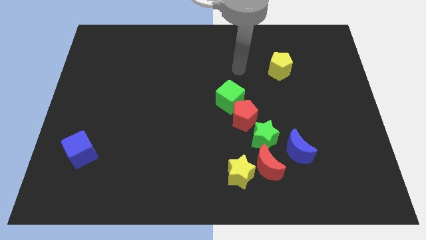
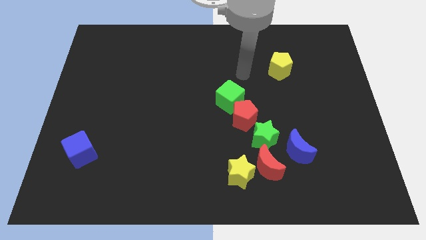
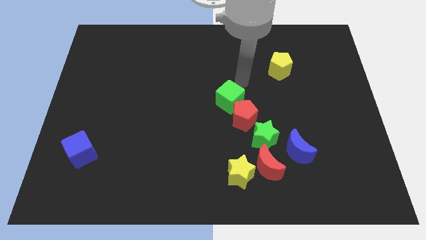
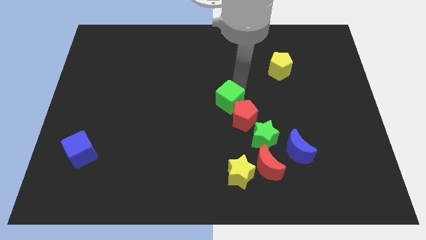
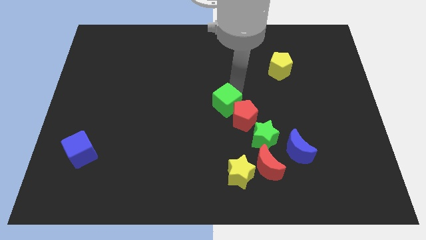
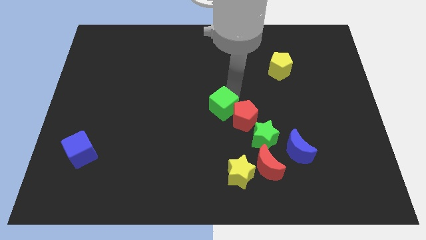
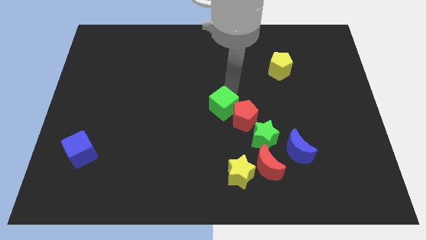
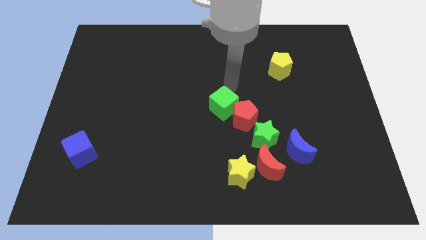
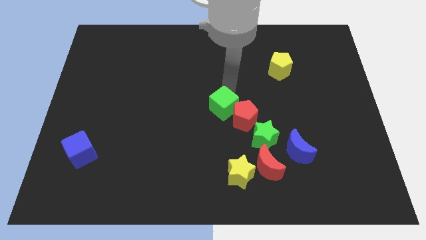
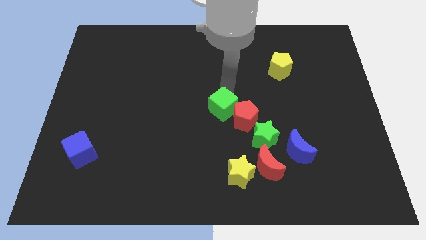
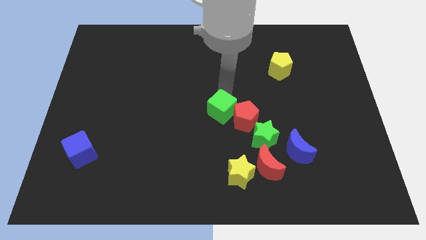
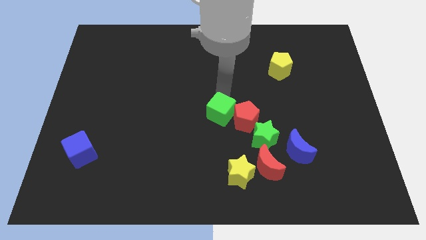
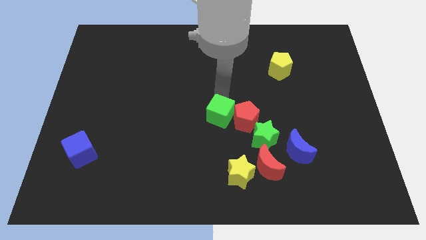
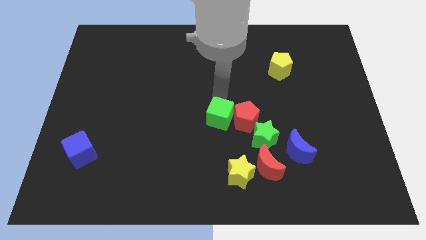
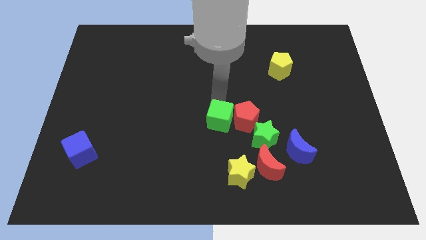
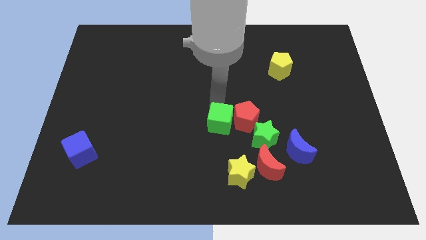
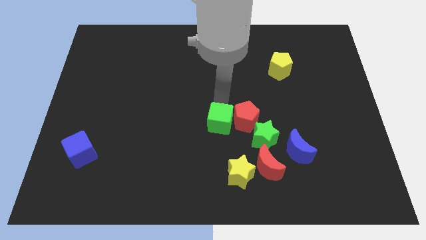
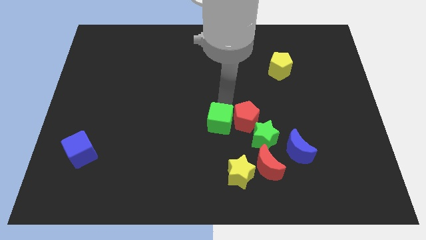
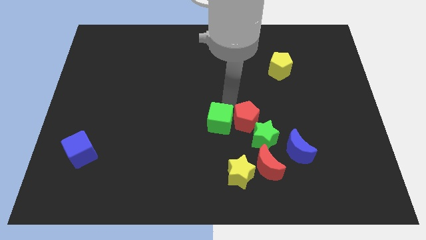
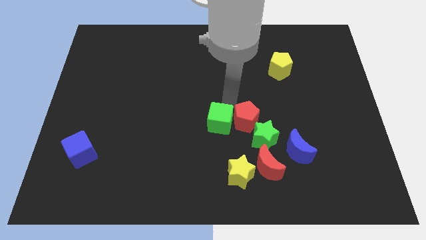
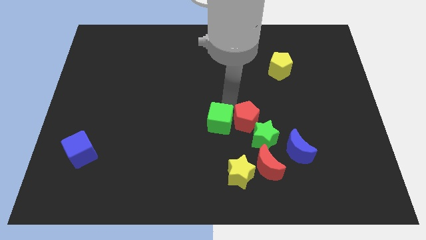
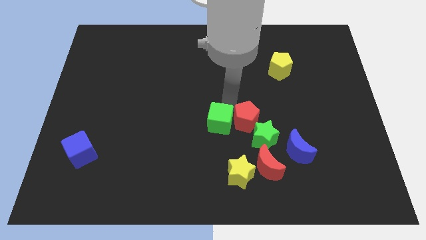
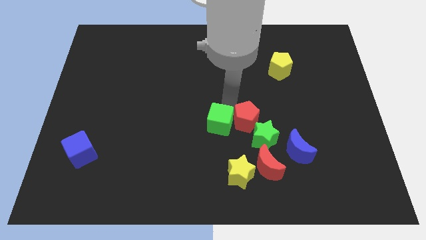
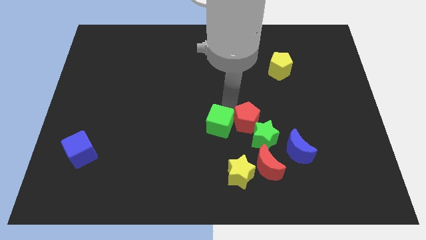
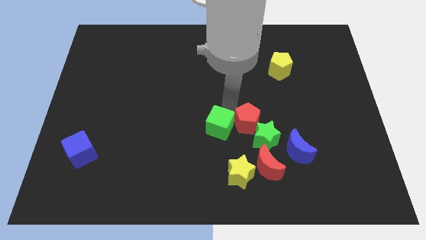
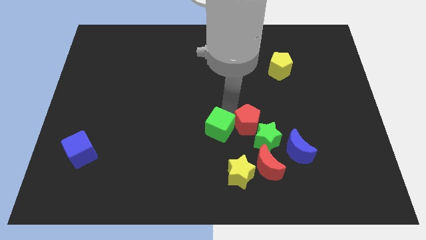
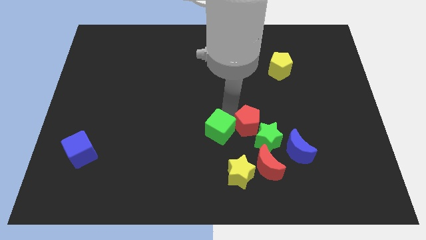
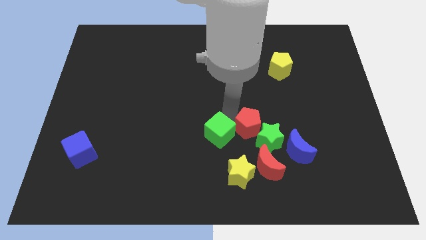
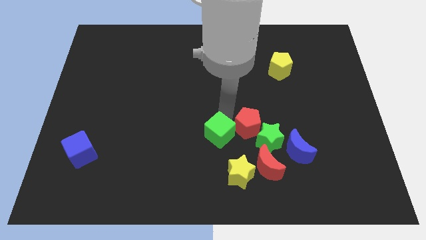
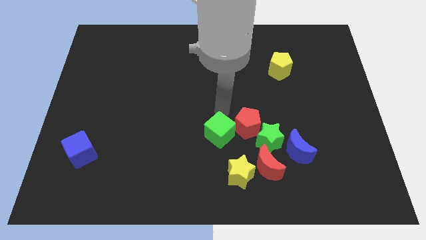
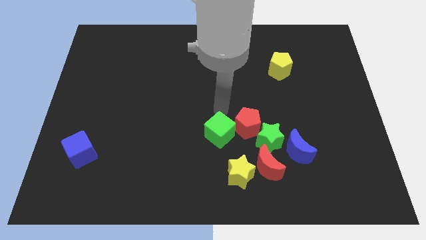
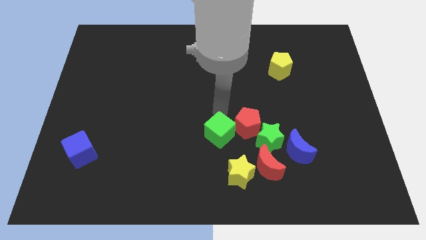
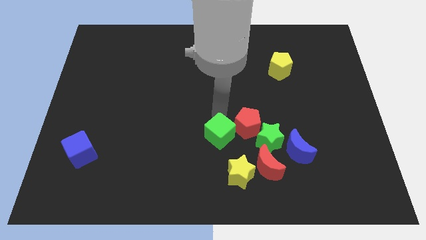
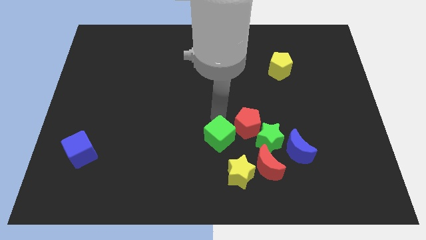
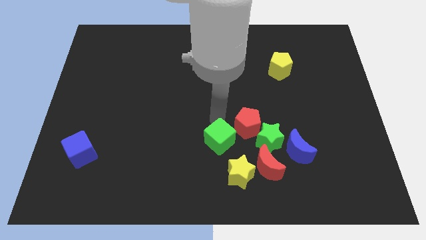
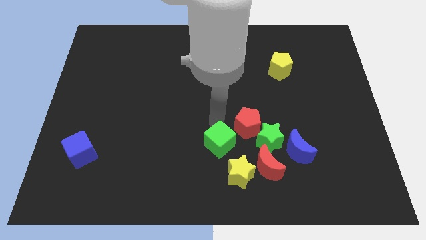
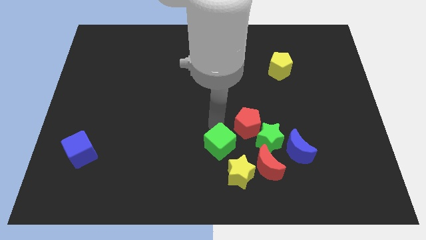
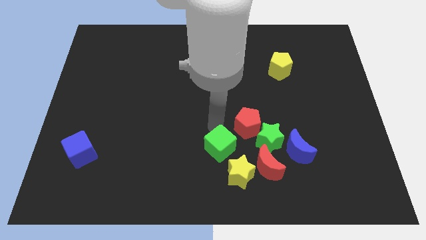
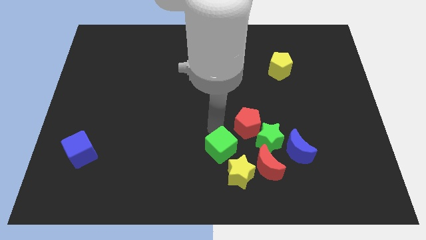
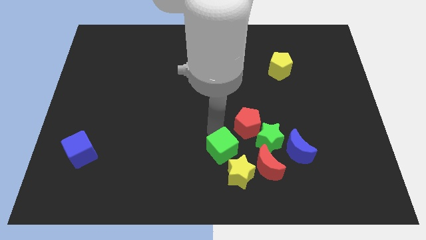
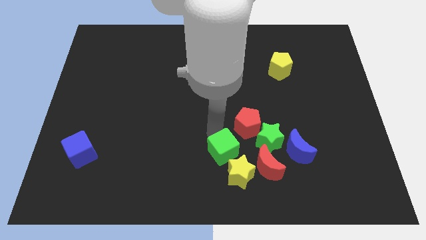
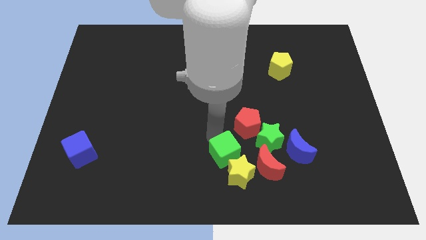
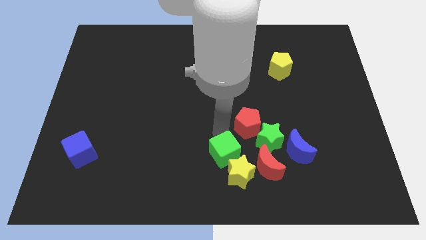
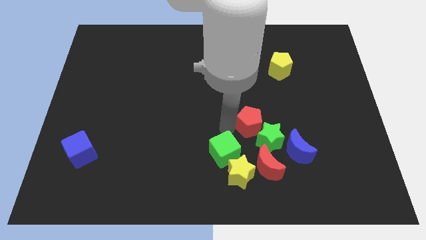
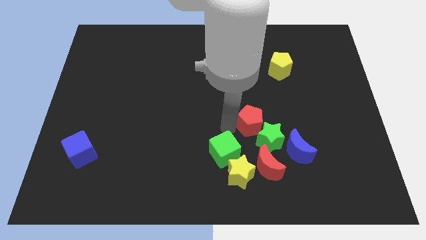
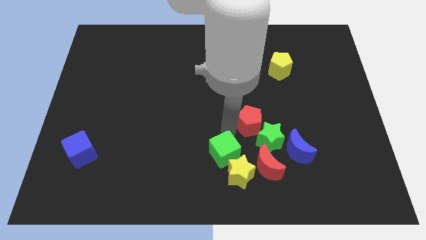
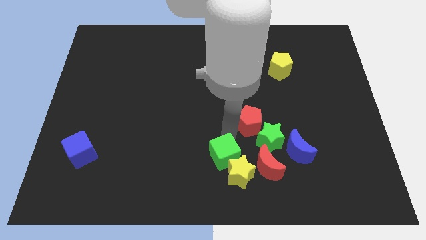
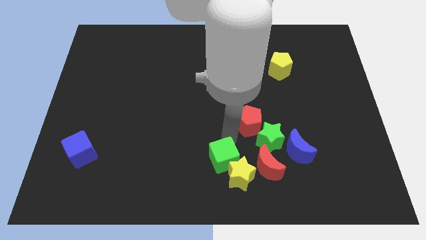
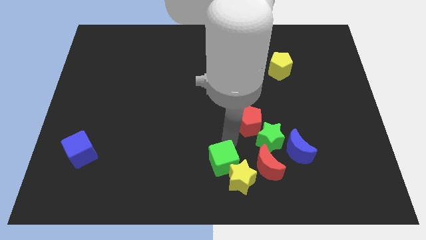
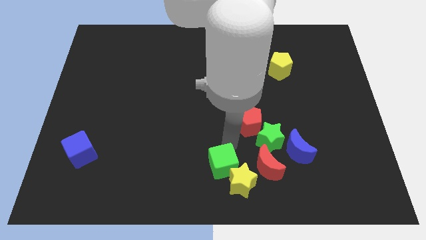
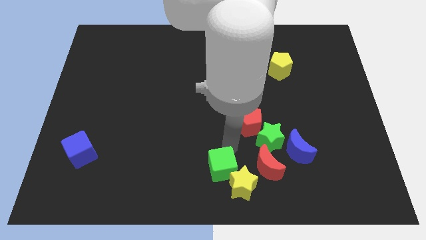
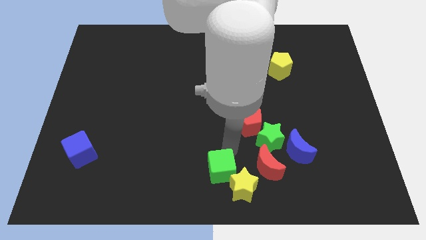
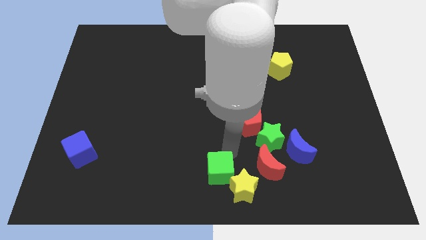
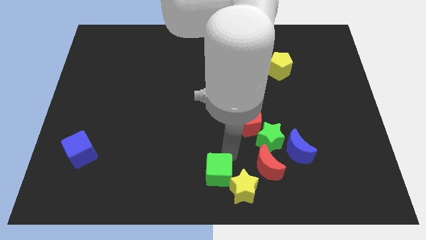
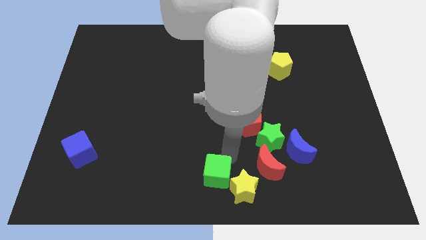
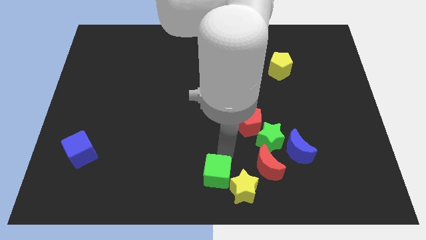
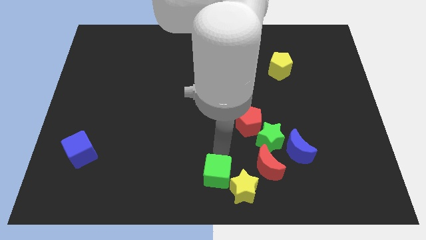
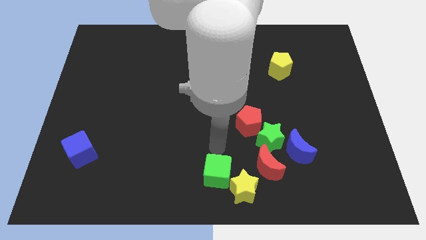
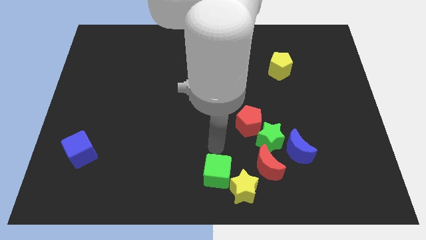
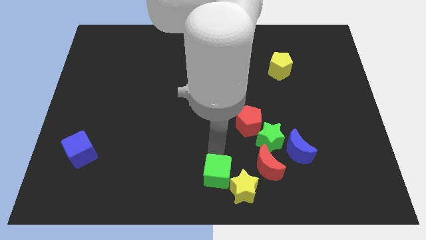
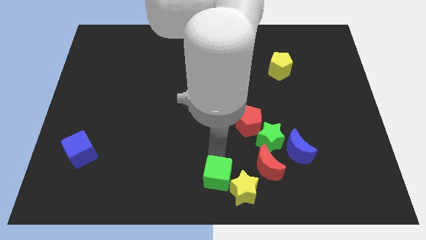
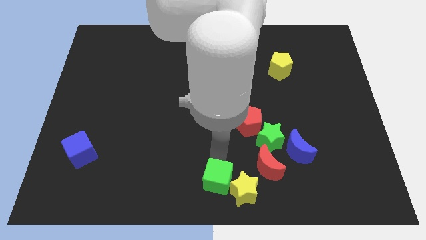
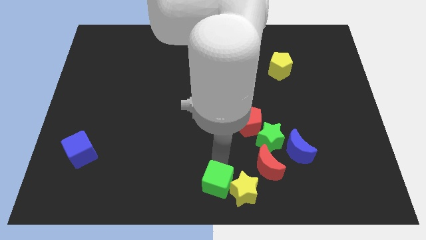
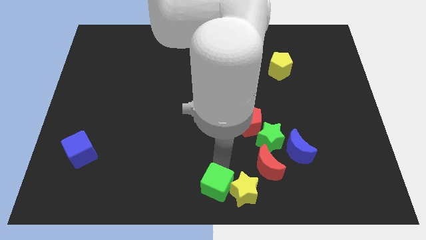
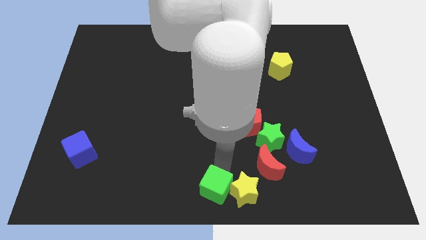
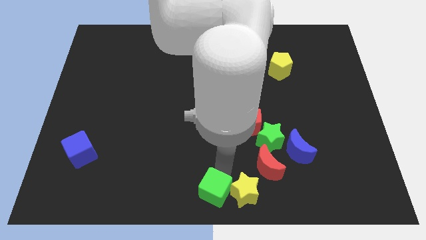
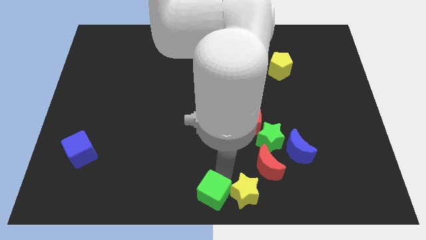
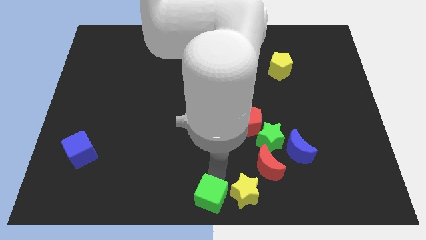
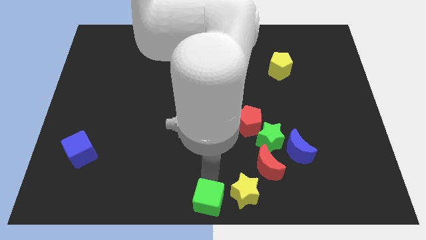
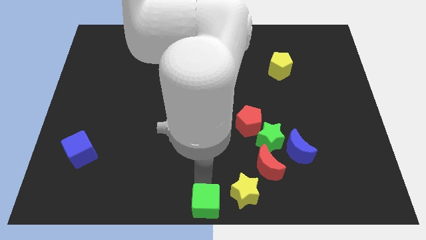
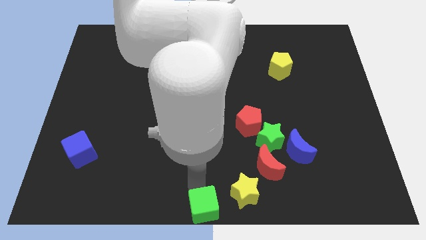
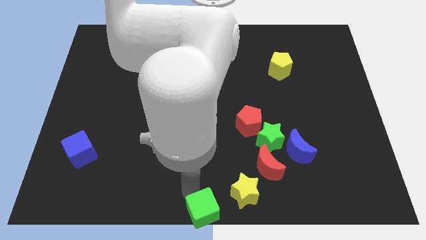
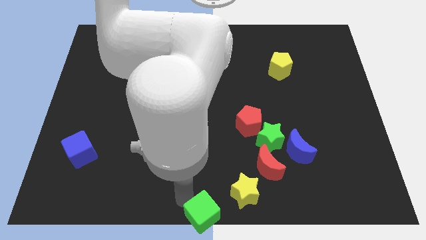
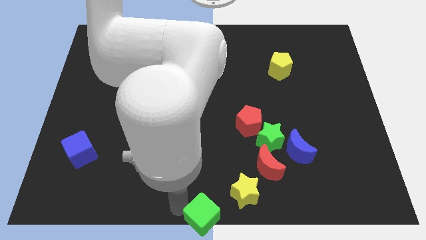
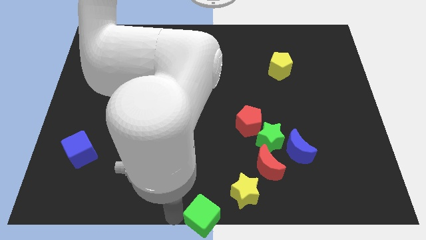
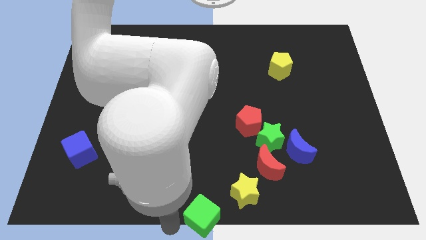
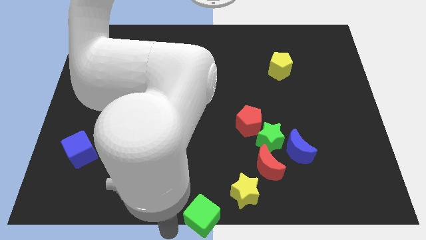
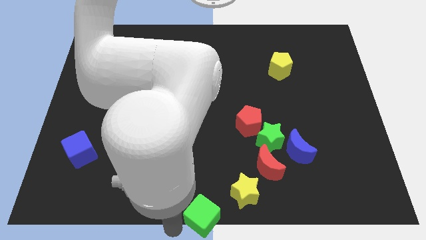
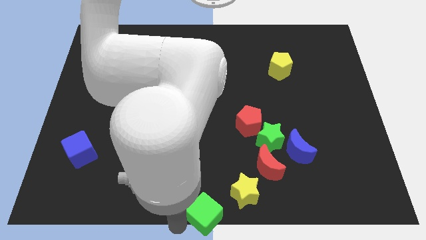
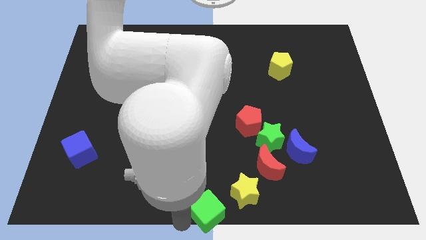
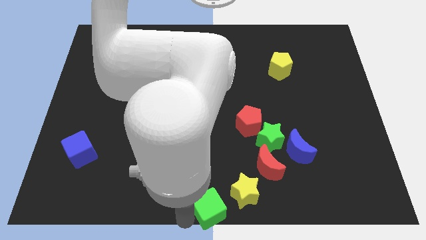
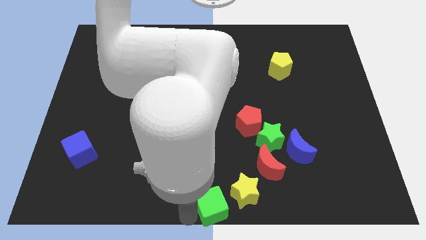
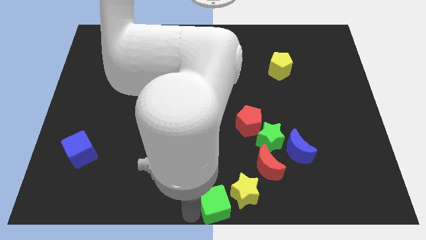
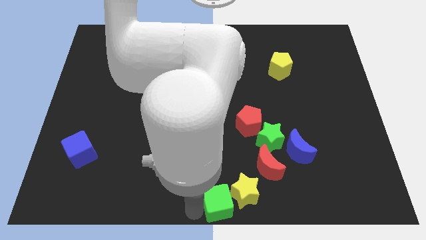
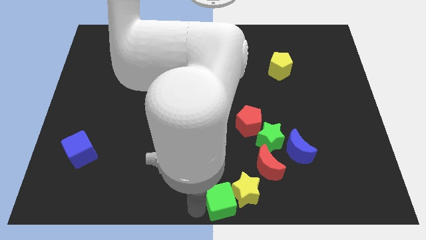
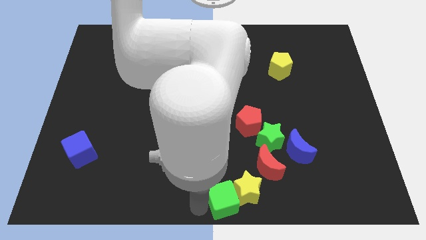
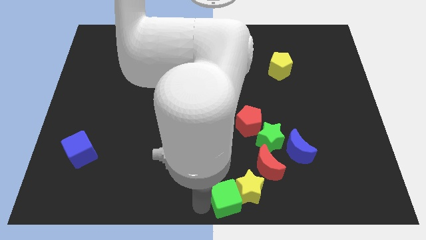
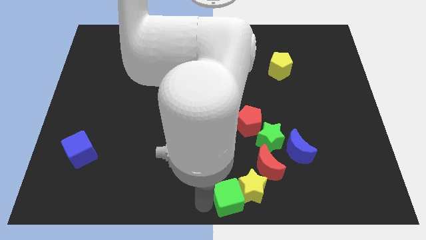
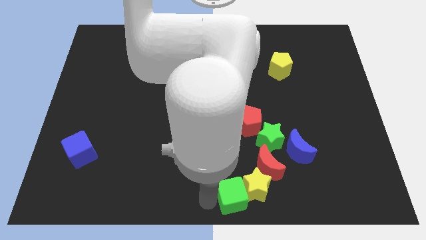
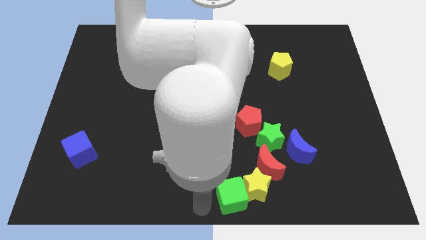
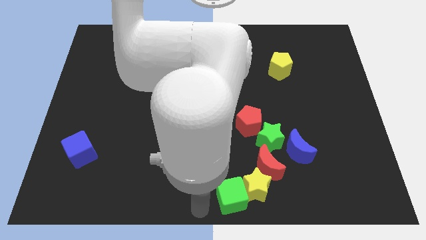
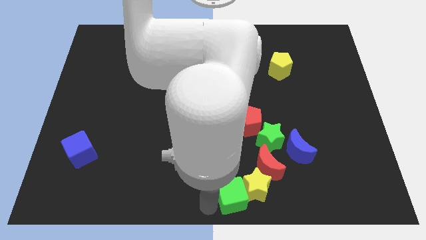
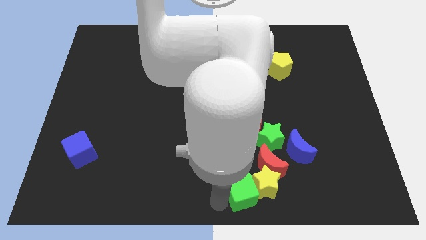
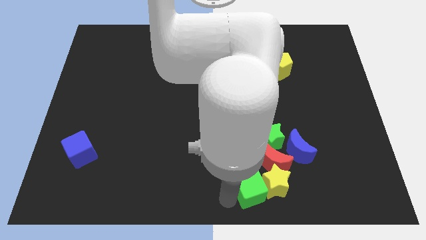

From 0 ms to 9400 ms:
push the green cube to the bottom of the green star
